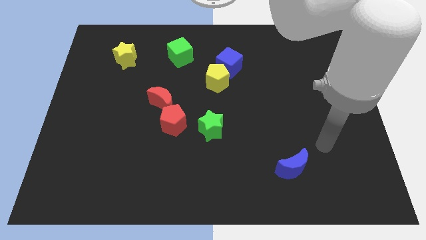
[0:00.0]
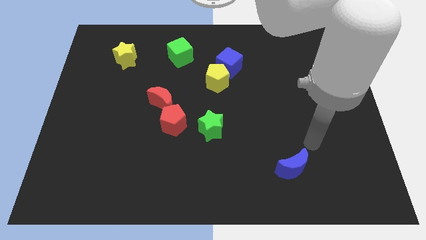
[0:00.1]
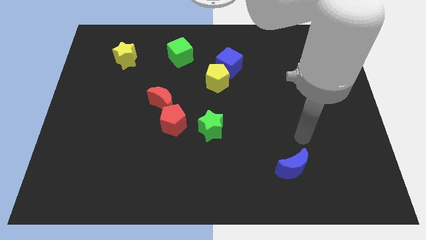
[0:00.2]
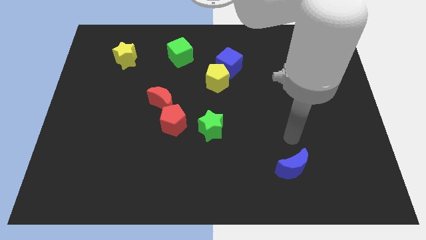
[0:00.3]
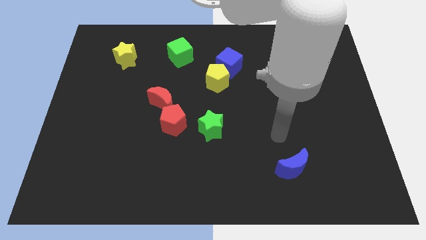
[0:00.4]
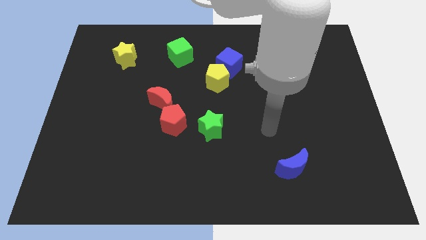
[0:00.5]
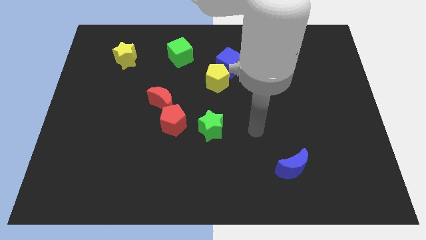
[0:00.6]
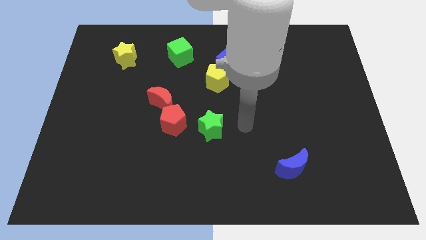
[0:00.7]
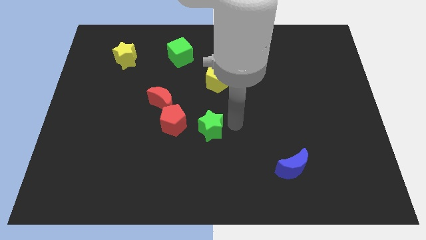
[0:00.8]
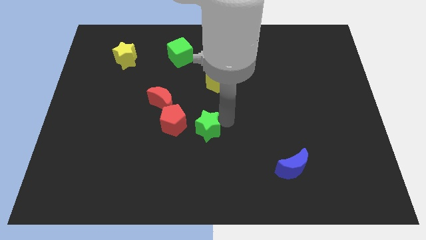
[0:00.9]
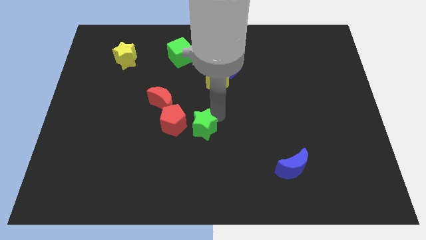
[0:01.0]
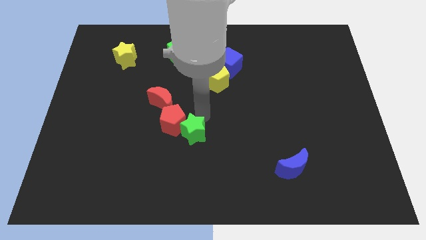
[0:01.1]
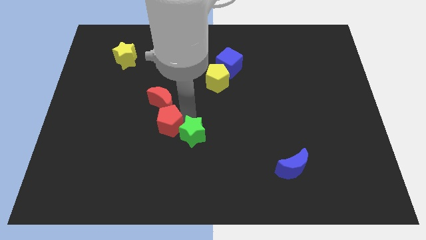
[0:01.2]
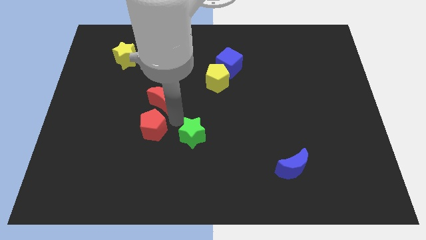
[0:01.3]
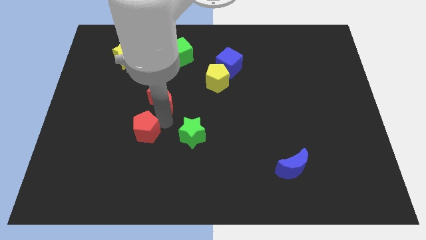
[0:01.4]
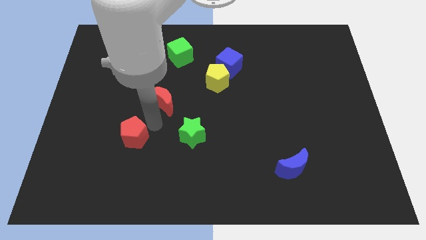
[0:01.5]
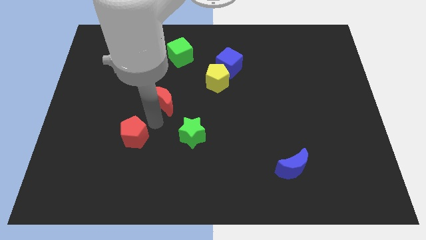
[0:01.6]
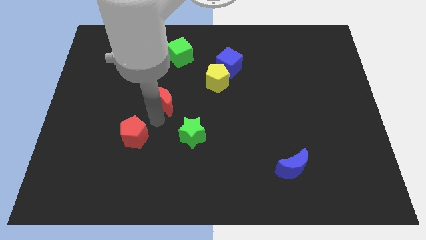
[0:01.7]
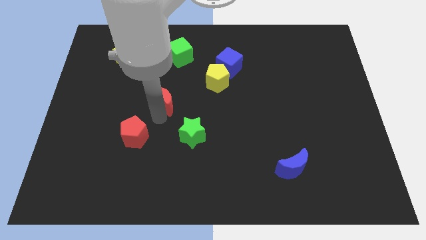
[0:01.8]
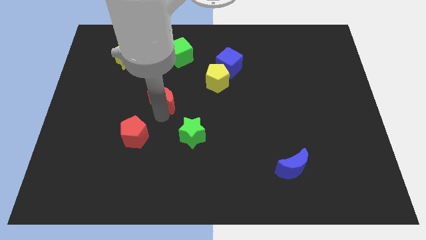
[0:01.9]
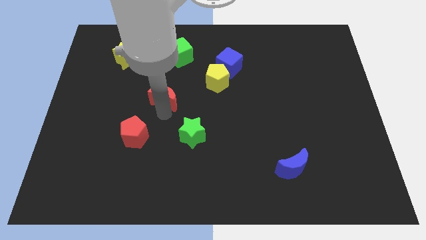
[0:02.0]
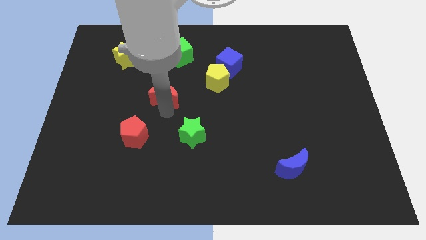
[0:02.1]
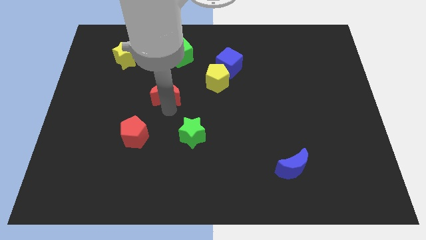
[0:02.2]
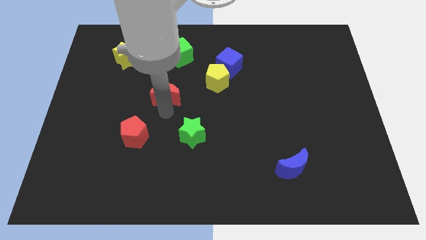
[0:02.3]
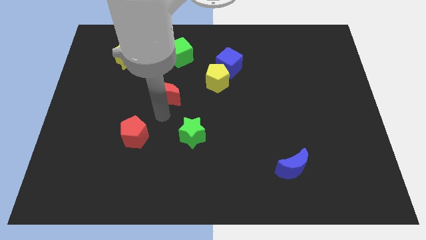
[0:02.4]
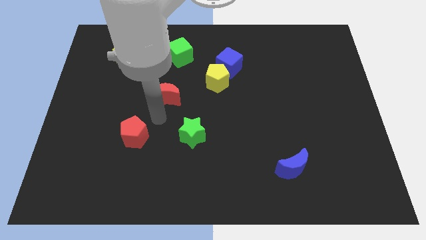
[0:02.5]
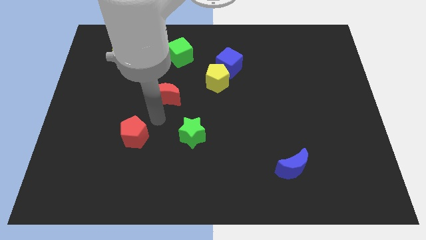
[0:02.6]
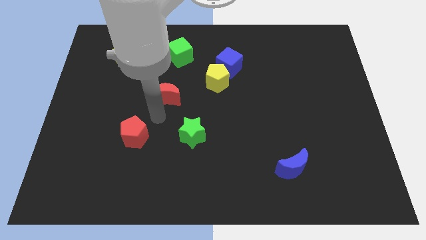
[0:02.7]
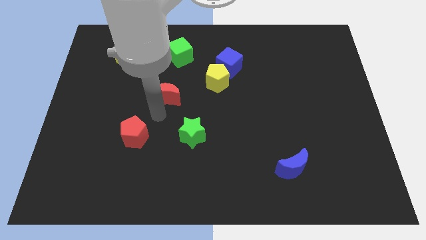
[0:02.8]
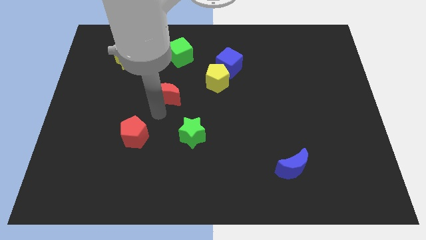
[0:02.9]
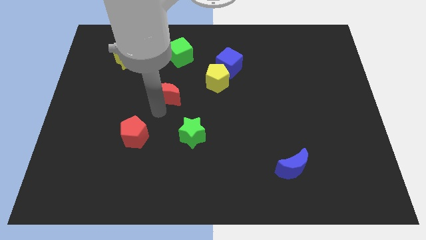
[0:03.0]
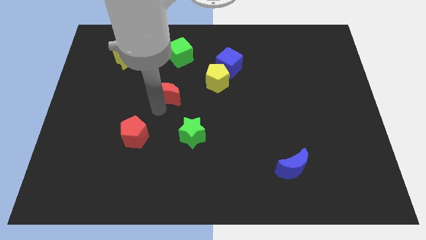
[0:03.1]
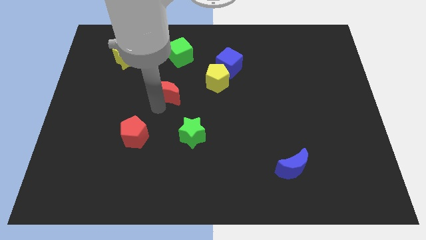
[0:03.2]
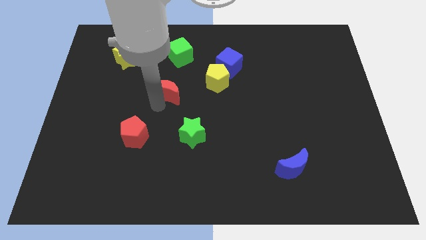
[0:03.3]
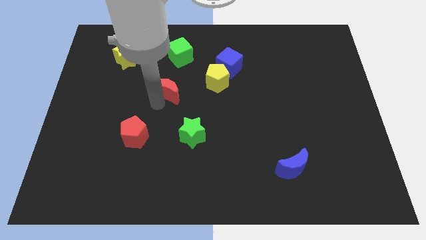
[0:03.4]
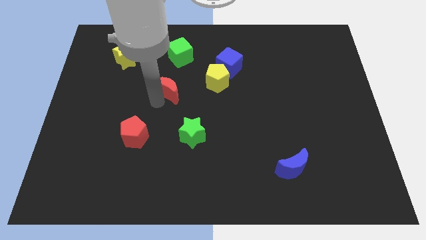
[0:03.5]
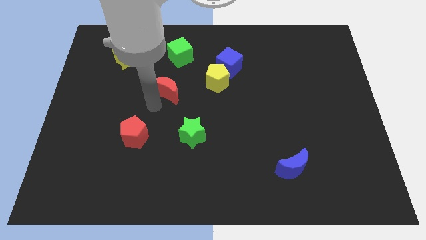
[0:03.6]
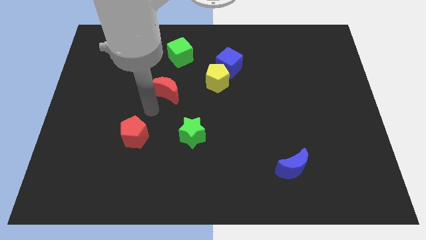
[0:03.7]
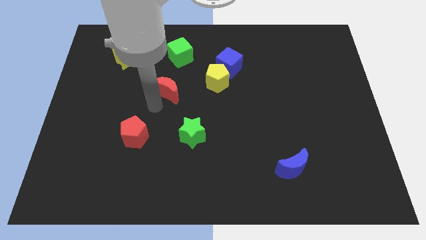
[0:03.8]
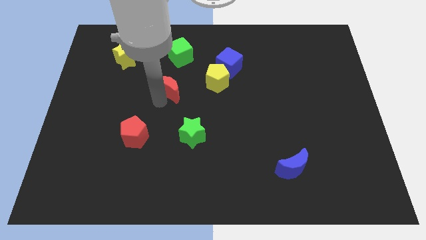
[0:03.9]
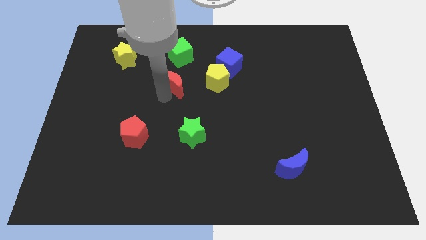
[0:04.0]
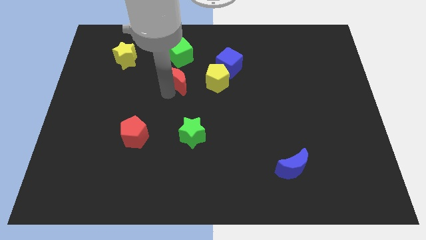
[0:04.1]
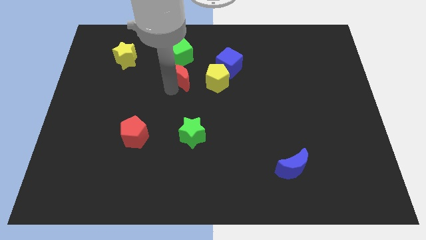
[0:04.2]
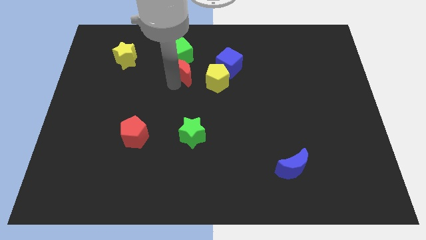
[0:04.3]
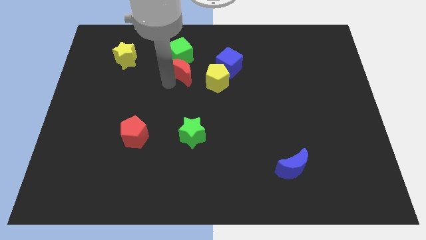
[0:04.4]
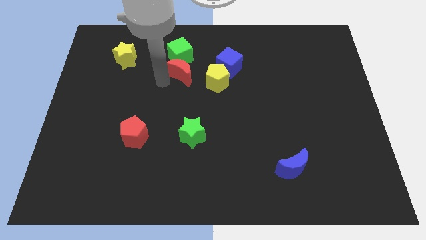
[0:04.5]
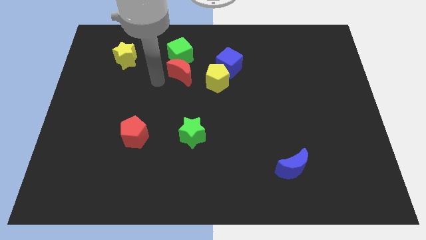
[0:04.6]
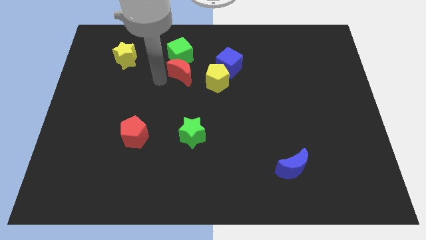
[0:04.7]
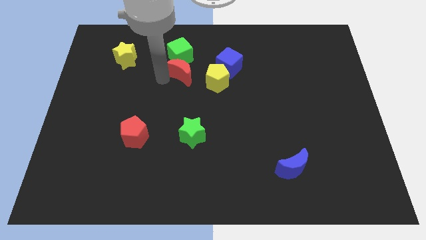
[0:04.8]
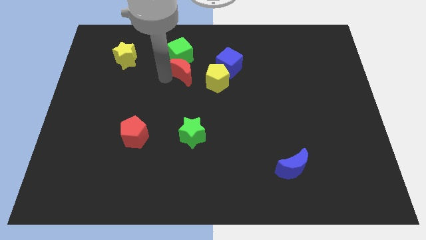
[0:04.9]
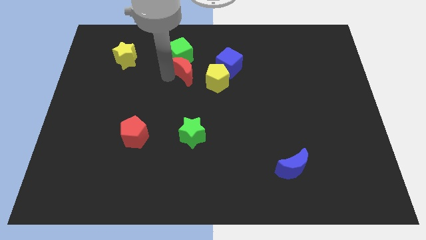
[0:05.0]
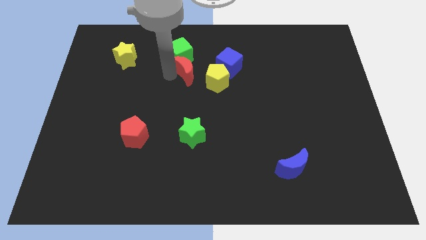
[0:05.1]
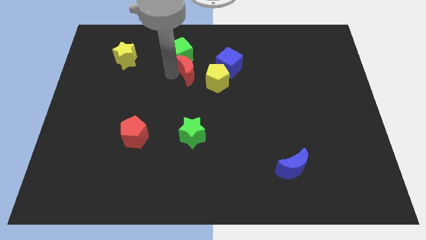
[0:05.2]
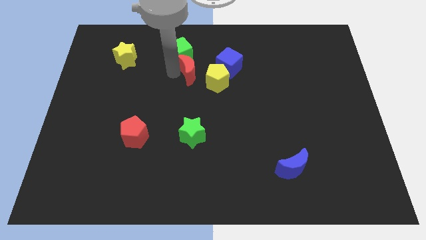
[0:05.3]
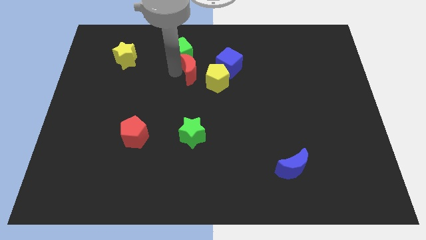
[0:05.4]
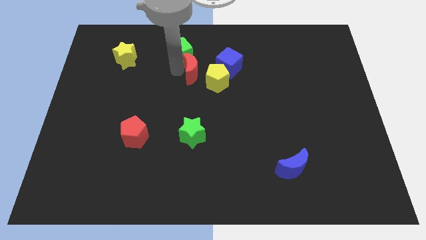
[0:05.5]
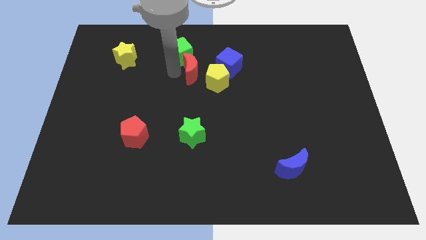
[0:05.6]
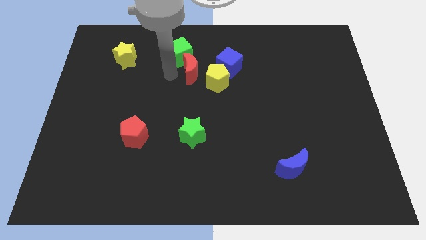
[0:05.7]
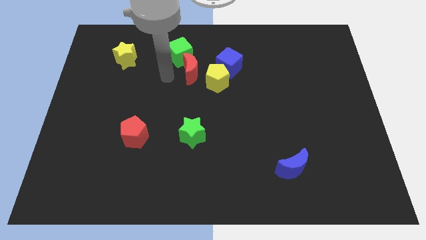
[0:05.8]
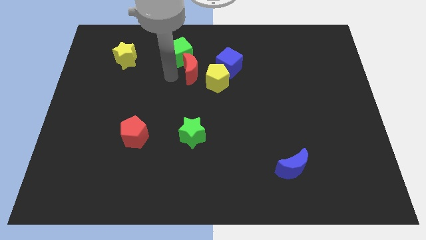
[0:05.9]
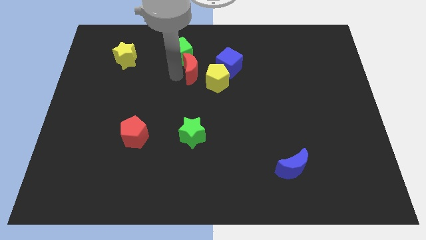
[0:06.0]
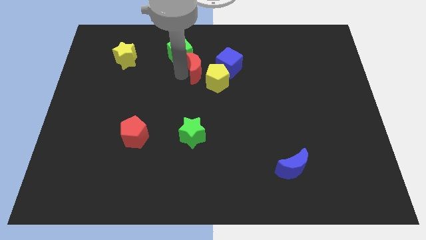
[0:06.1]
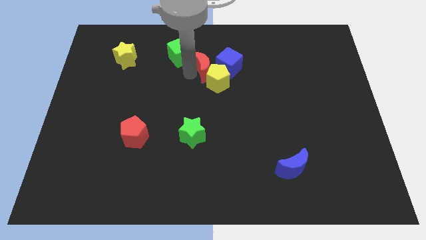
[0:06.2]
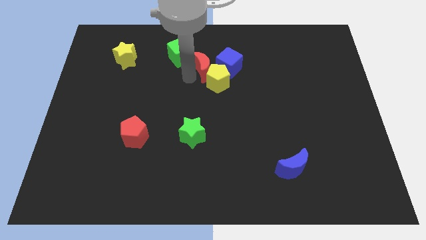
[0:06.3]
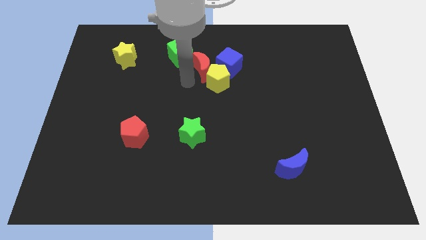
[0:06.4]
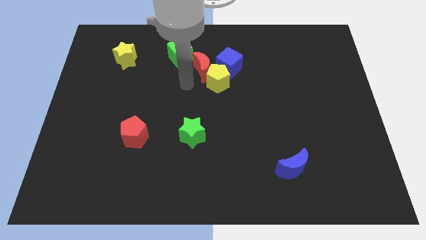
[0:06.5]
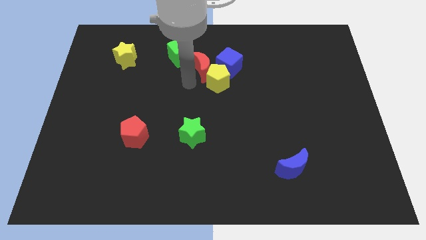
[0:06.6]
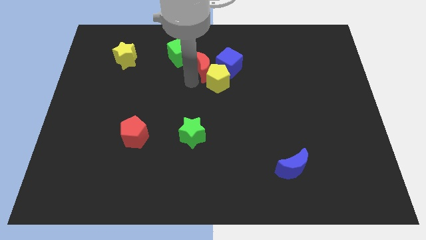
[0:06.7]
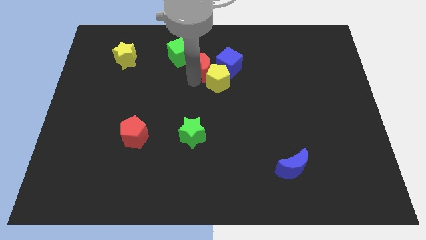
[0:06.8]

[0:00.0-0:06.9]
put the red moon right of the green cube

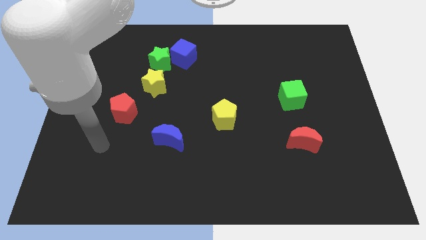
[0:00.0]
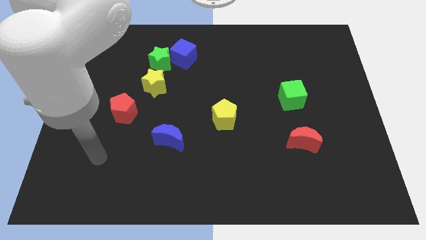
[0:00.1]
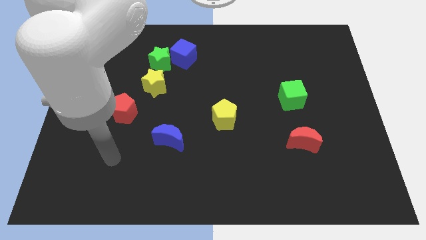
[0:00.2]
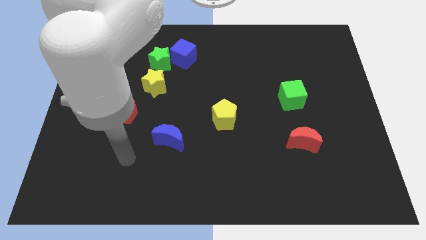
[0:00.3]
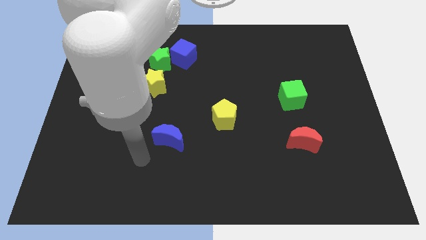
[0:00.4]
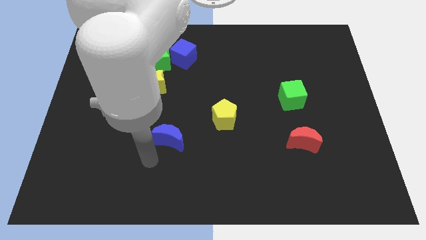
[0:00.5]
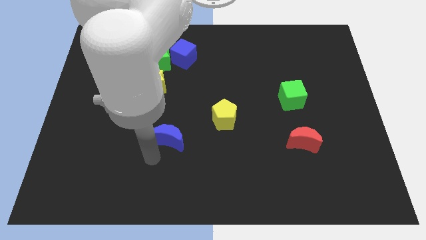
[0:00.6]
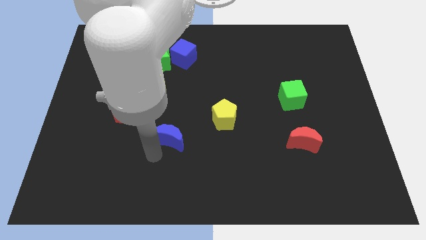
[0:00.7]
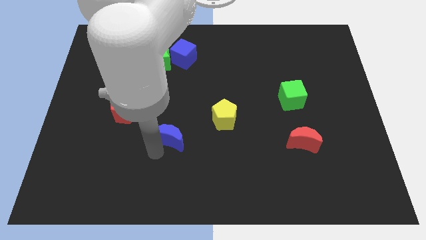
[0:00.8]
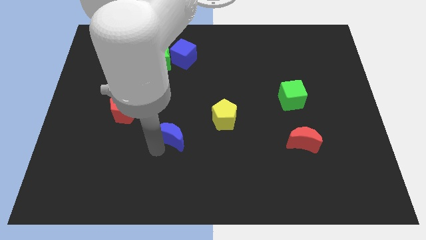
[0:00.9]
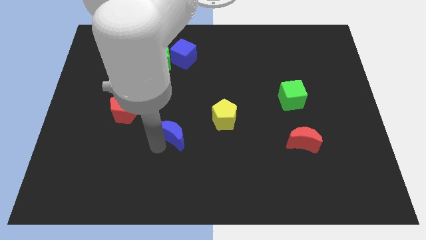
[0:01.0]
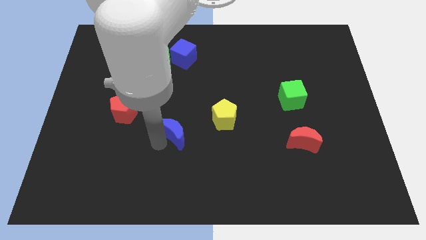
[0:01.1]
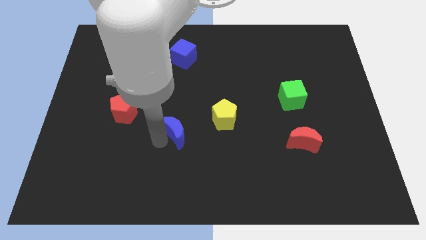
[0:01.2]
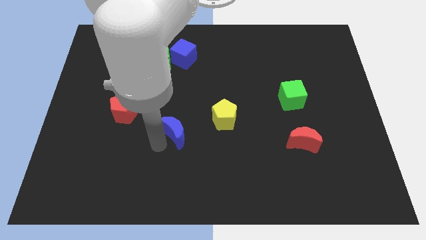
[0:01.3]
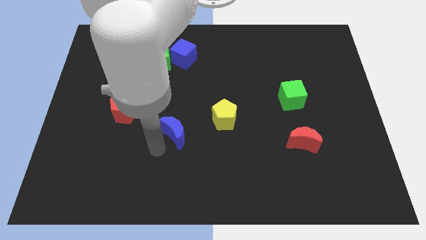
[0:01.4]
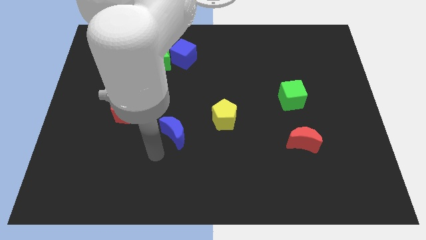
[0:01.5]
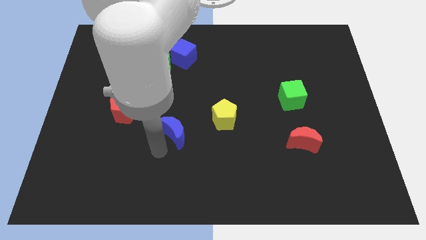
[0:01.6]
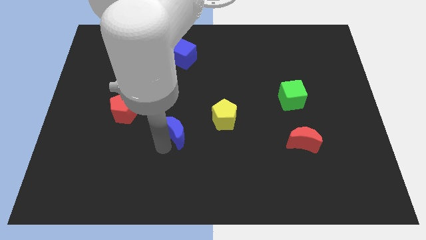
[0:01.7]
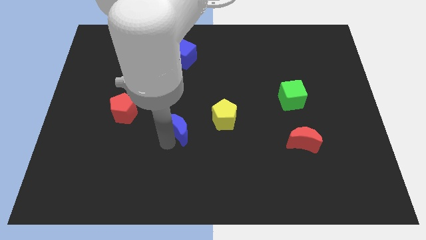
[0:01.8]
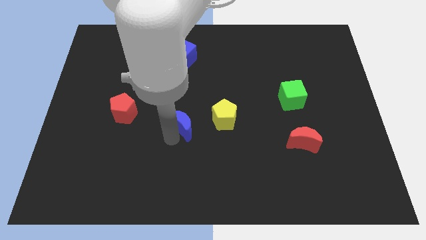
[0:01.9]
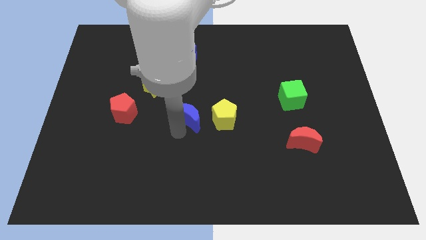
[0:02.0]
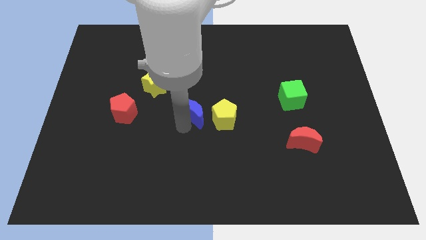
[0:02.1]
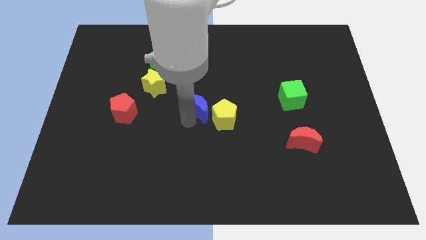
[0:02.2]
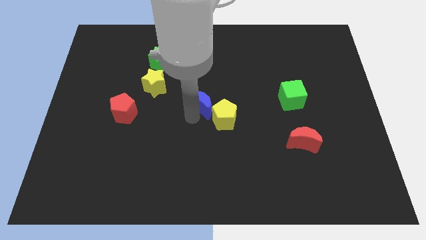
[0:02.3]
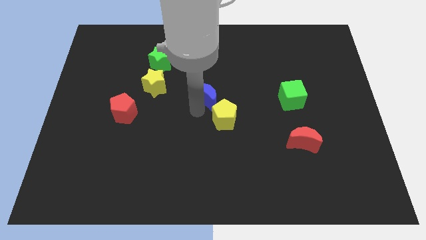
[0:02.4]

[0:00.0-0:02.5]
put the blue moon above the yellow pentagon
